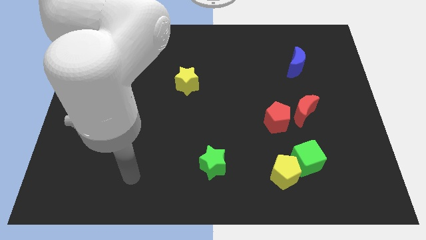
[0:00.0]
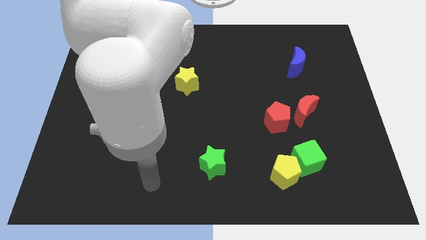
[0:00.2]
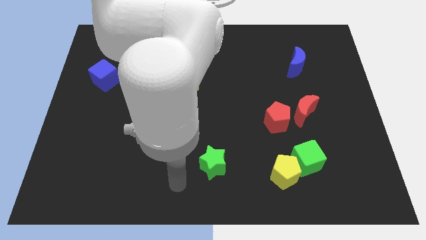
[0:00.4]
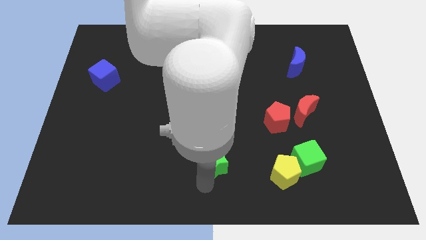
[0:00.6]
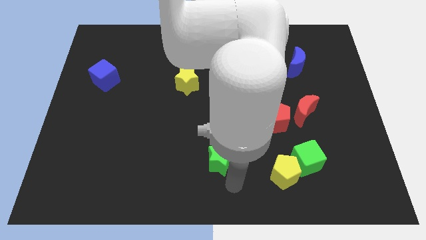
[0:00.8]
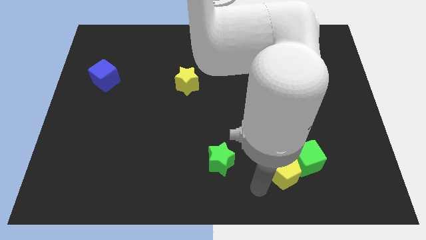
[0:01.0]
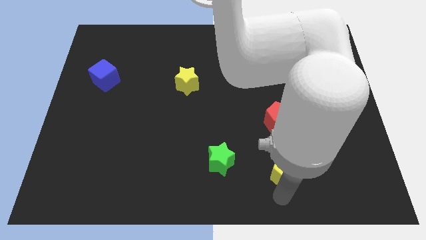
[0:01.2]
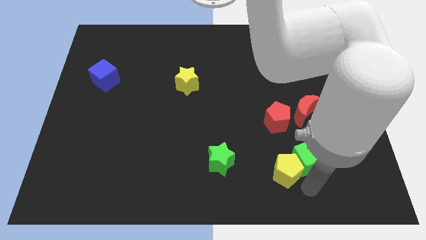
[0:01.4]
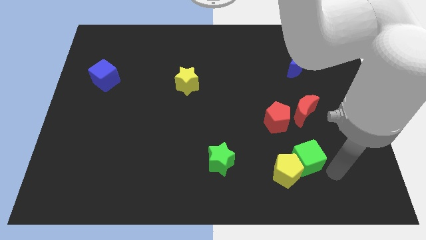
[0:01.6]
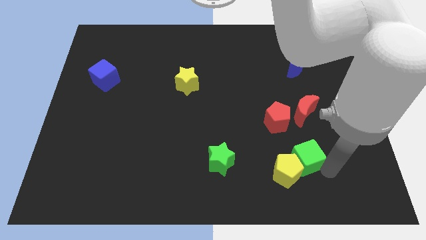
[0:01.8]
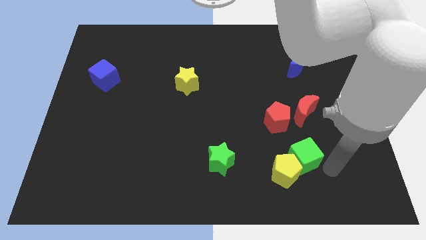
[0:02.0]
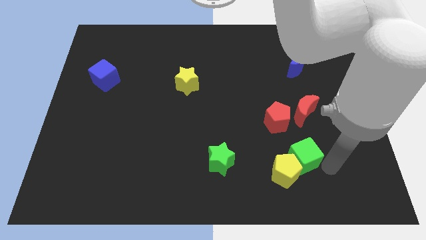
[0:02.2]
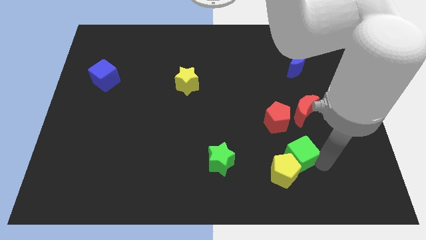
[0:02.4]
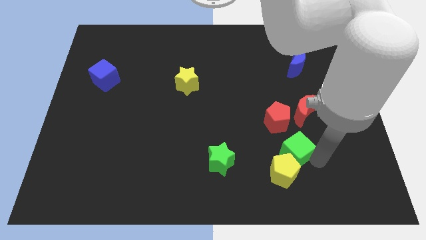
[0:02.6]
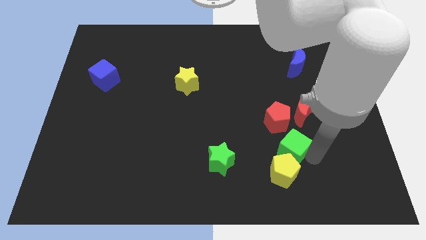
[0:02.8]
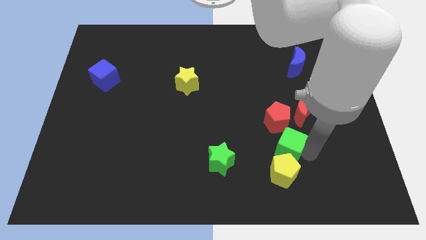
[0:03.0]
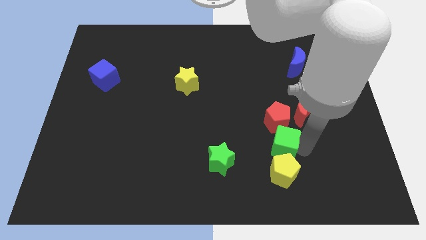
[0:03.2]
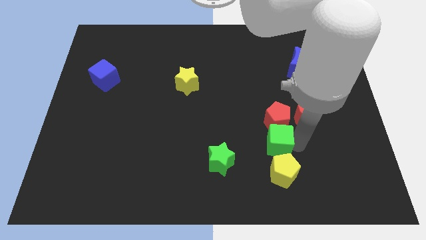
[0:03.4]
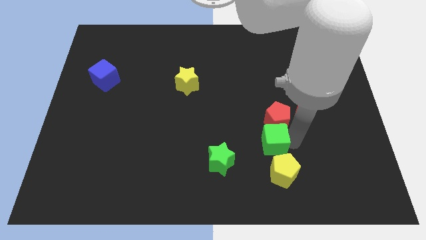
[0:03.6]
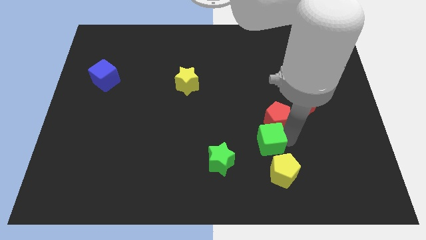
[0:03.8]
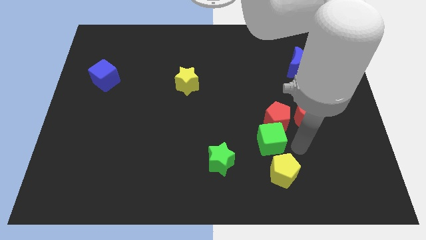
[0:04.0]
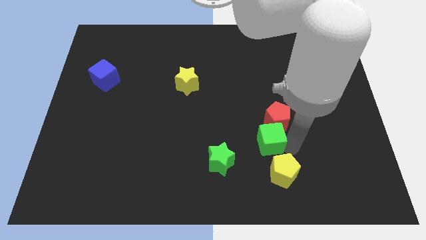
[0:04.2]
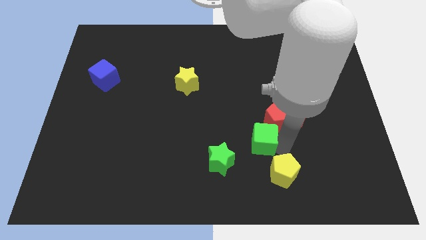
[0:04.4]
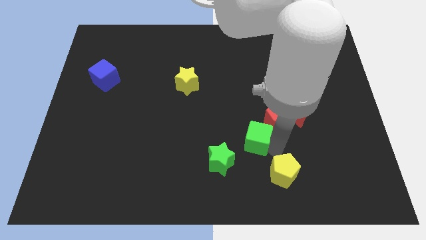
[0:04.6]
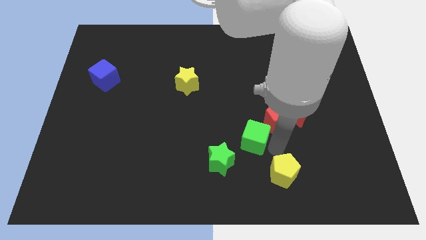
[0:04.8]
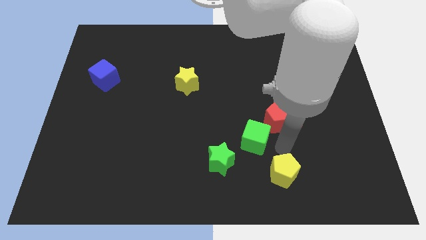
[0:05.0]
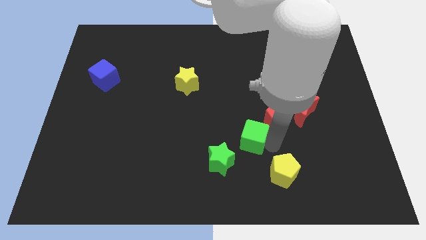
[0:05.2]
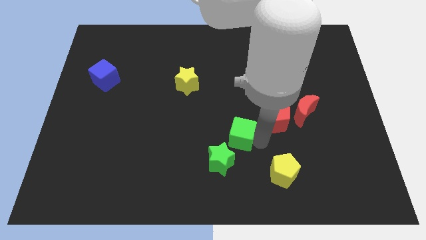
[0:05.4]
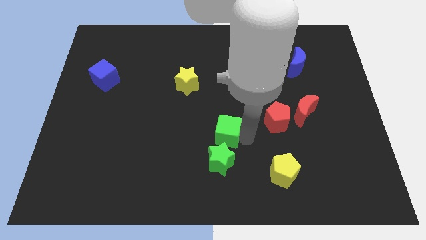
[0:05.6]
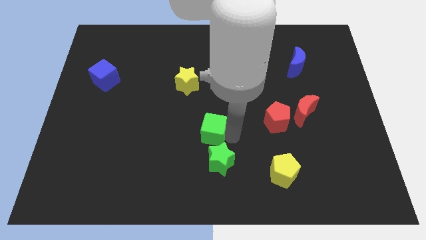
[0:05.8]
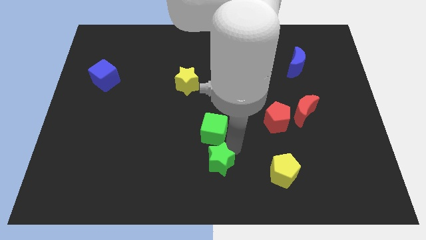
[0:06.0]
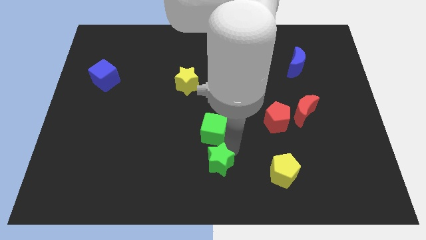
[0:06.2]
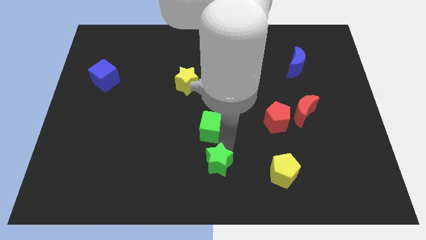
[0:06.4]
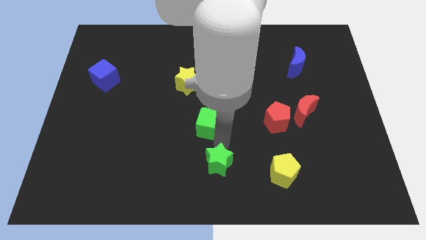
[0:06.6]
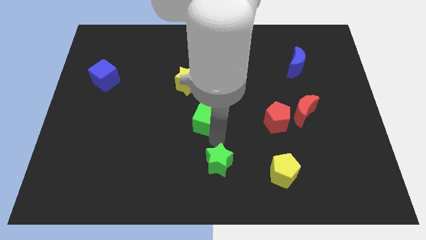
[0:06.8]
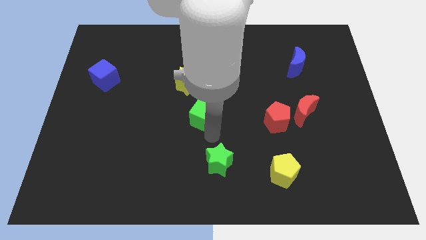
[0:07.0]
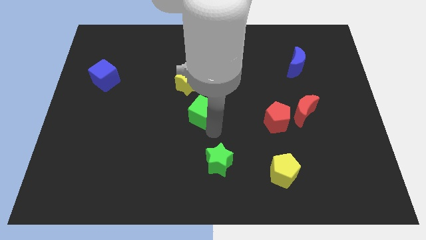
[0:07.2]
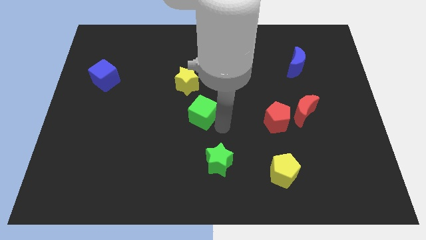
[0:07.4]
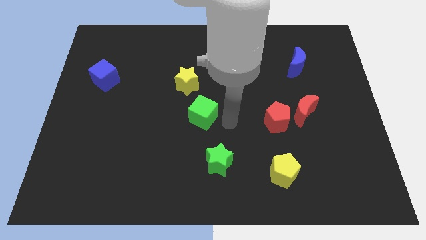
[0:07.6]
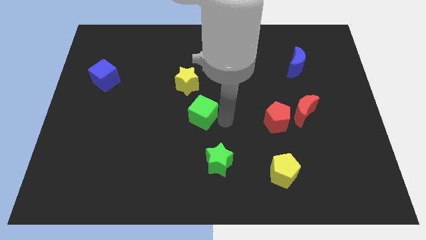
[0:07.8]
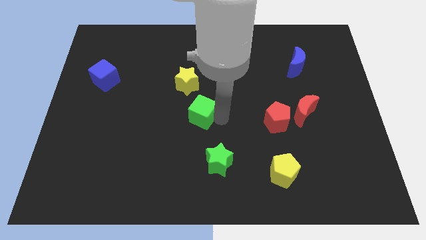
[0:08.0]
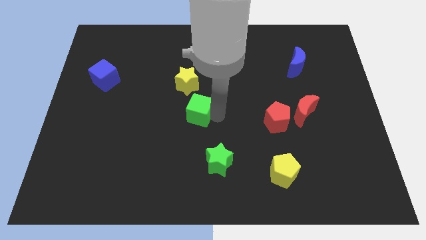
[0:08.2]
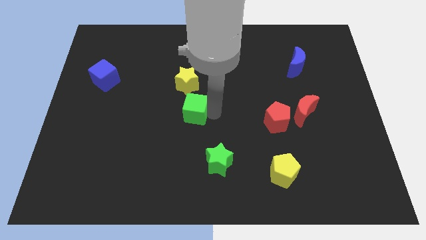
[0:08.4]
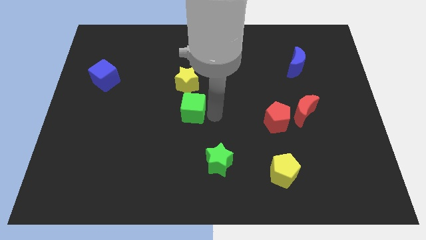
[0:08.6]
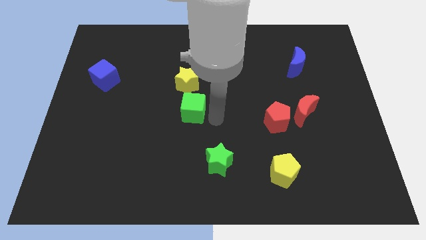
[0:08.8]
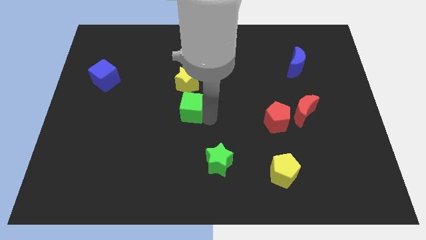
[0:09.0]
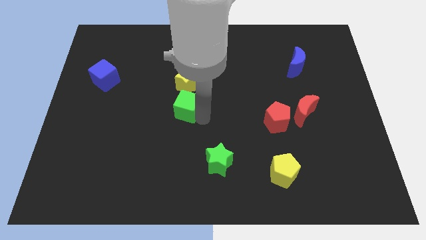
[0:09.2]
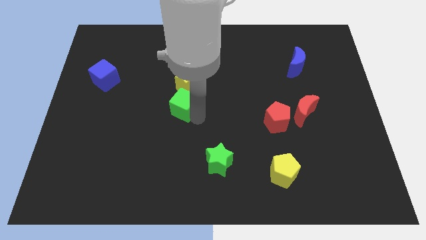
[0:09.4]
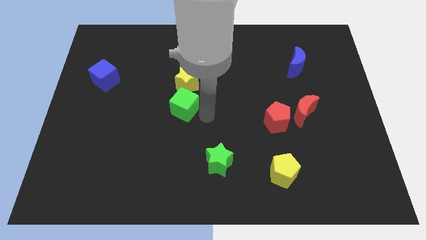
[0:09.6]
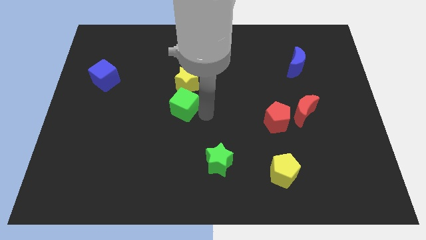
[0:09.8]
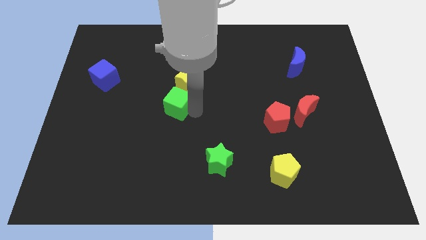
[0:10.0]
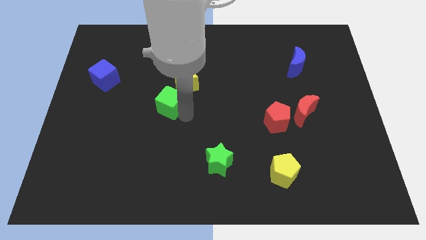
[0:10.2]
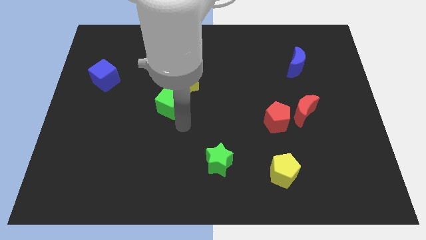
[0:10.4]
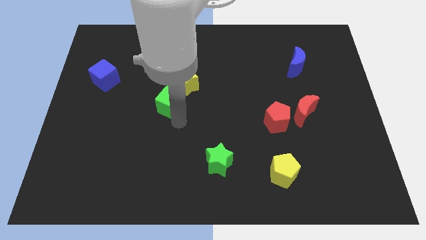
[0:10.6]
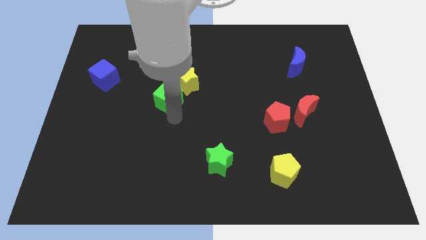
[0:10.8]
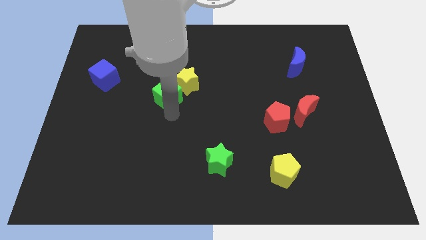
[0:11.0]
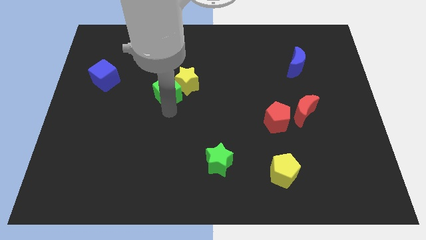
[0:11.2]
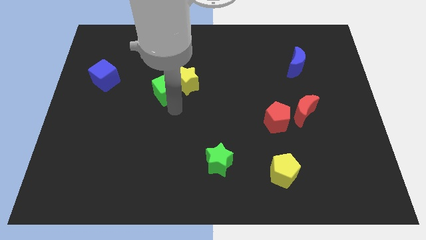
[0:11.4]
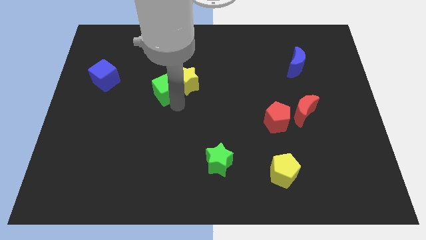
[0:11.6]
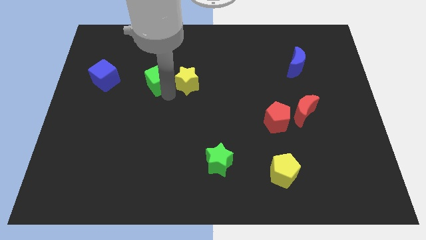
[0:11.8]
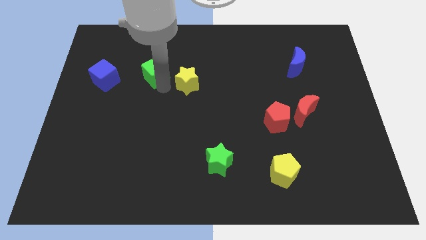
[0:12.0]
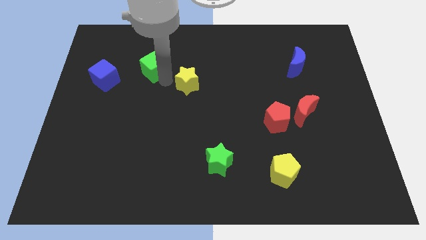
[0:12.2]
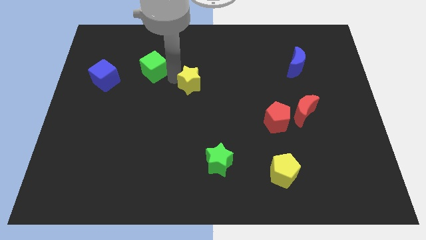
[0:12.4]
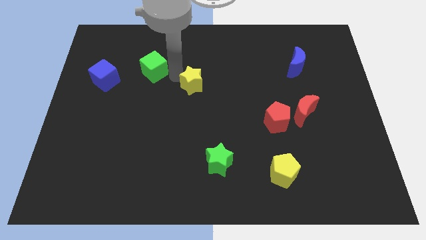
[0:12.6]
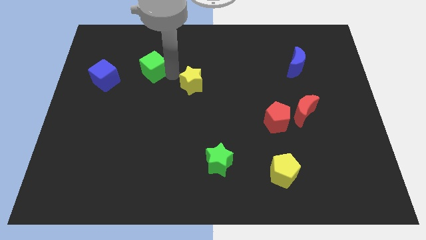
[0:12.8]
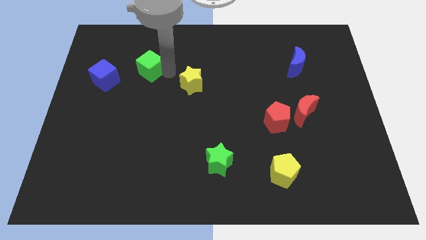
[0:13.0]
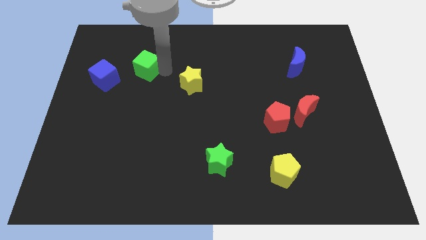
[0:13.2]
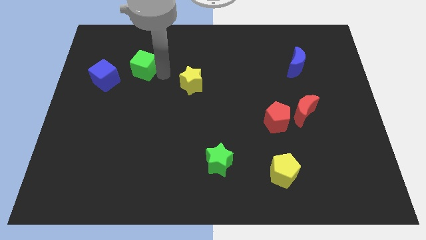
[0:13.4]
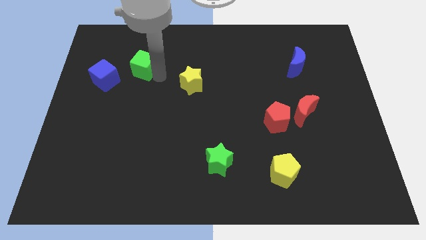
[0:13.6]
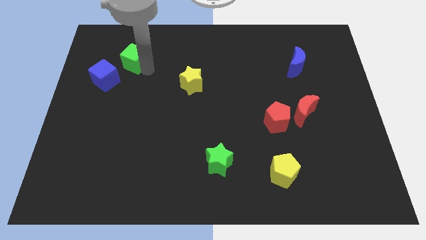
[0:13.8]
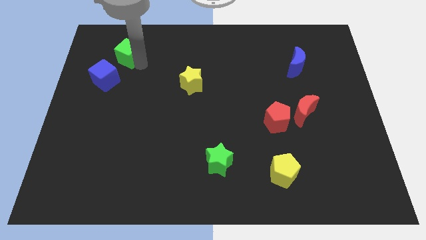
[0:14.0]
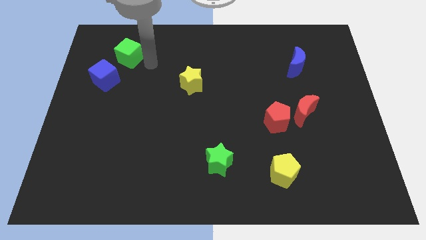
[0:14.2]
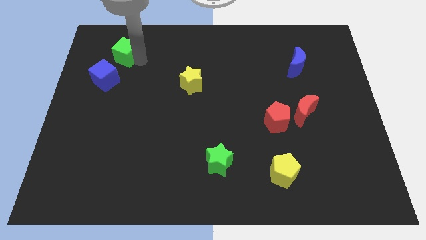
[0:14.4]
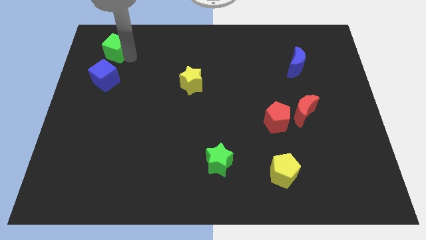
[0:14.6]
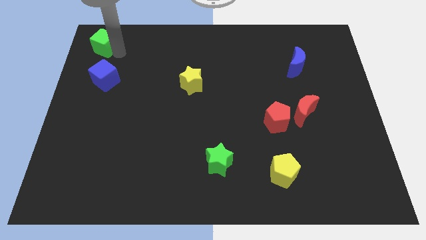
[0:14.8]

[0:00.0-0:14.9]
put the green cube to the upper left corner
